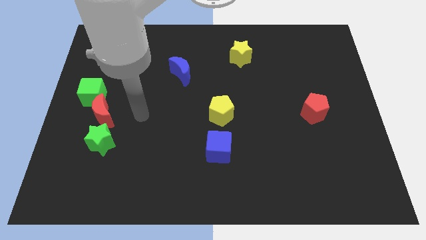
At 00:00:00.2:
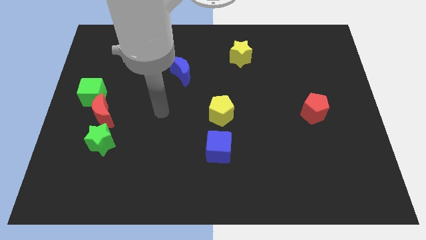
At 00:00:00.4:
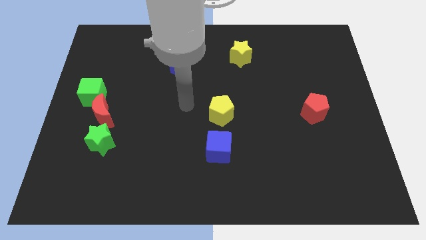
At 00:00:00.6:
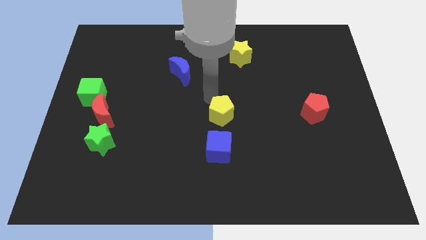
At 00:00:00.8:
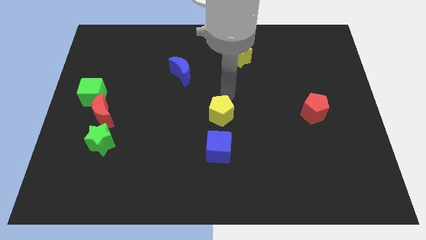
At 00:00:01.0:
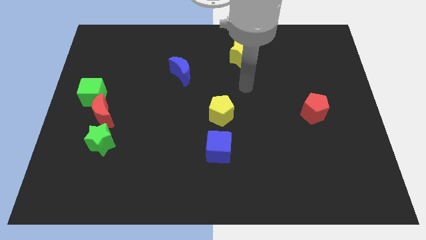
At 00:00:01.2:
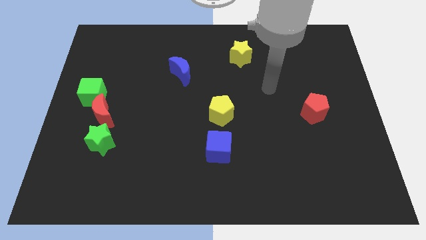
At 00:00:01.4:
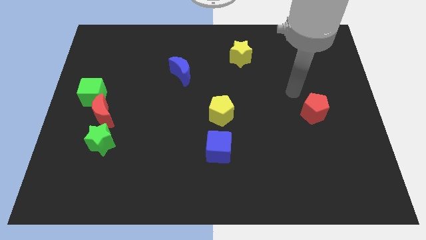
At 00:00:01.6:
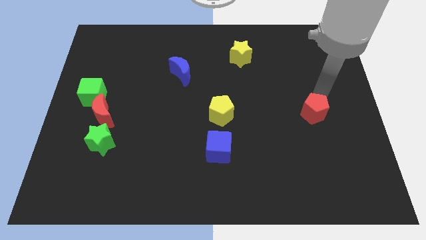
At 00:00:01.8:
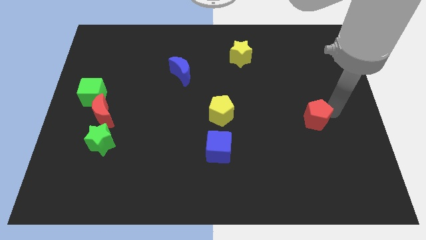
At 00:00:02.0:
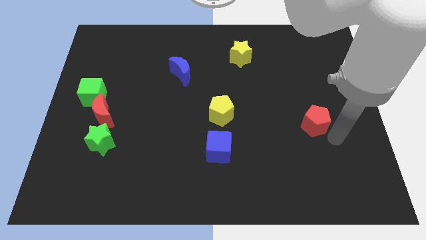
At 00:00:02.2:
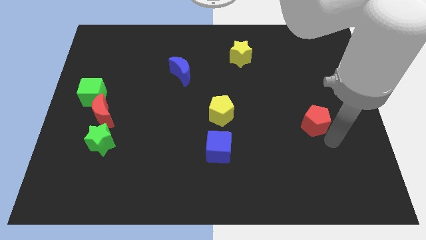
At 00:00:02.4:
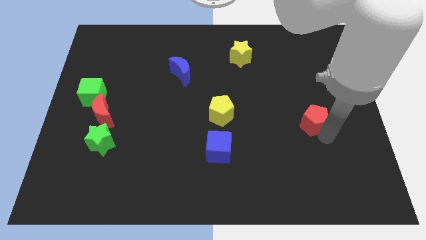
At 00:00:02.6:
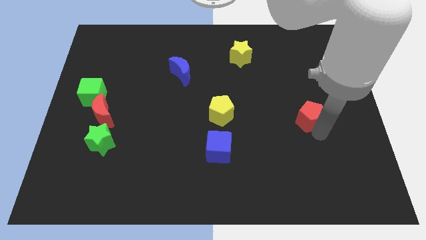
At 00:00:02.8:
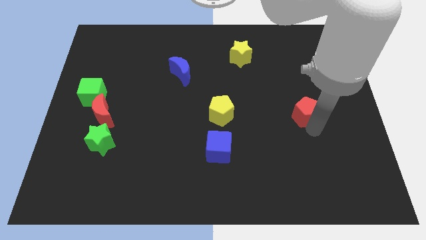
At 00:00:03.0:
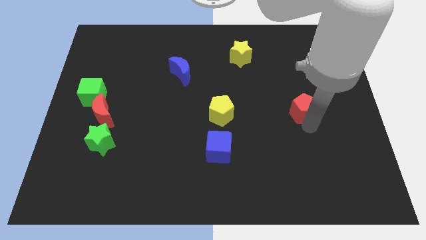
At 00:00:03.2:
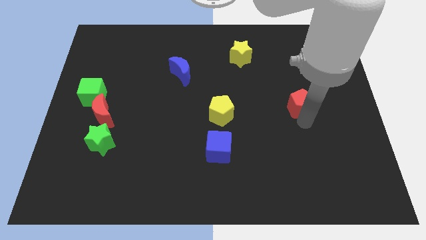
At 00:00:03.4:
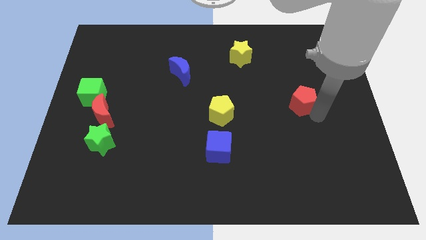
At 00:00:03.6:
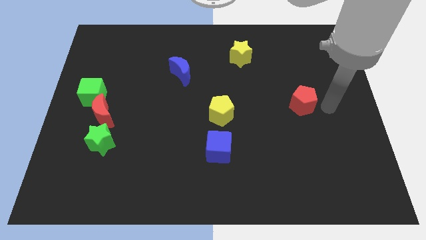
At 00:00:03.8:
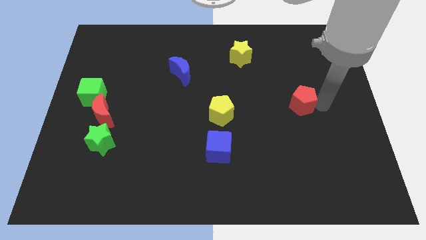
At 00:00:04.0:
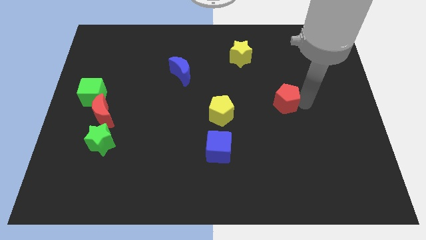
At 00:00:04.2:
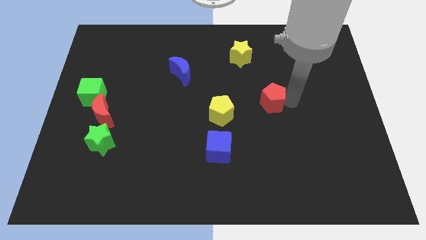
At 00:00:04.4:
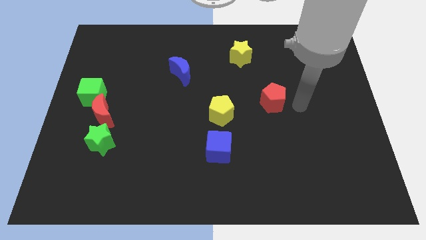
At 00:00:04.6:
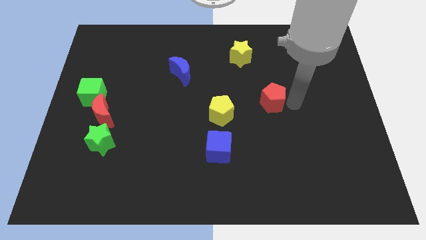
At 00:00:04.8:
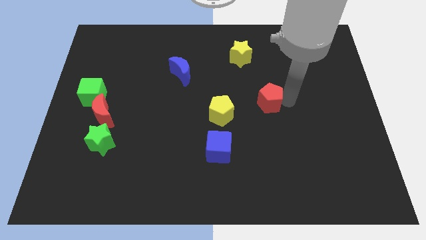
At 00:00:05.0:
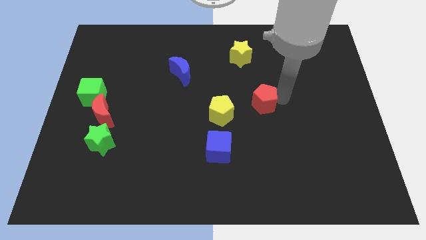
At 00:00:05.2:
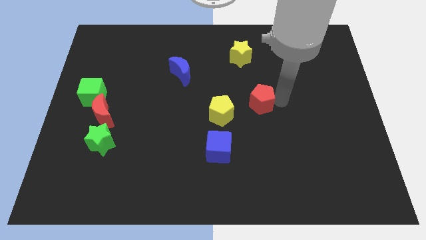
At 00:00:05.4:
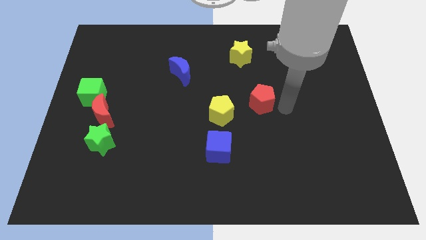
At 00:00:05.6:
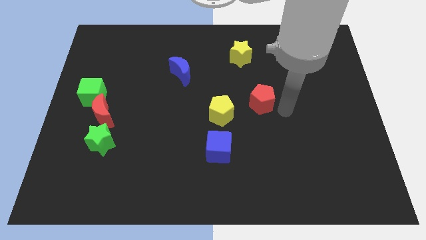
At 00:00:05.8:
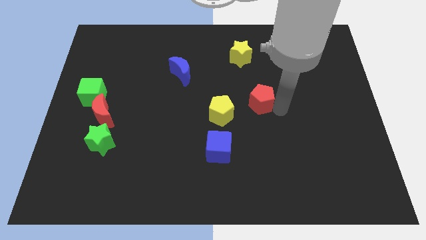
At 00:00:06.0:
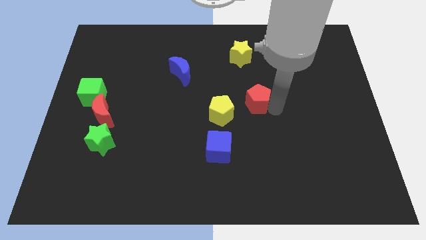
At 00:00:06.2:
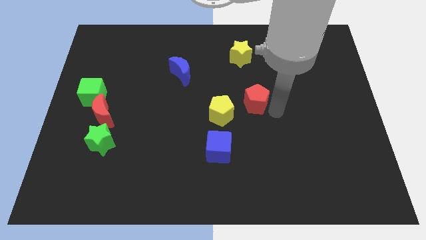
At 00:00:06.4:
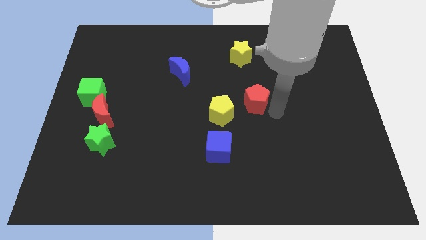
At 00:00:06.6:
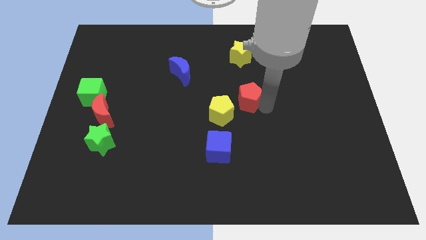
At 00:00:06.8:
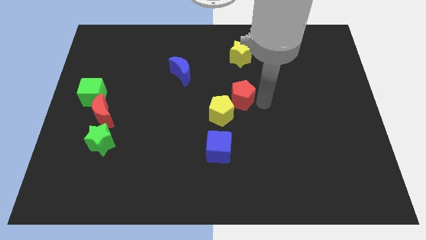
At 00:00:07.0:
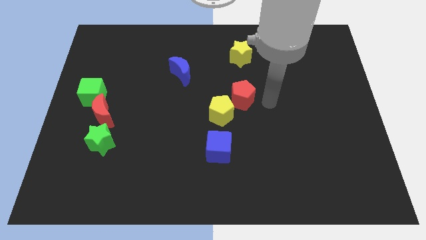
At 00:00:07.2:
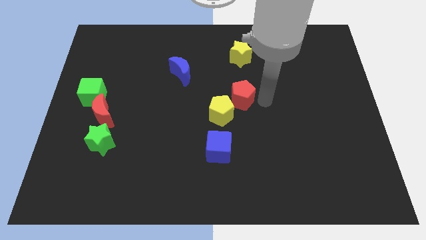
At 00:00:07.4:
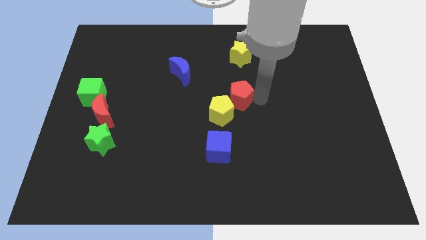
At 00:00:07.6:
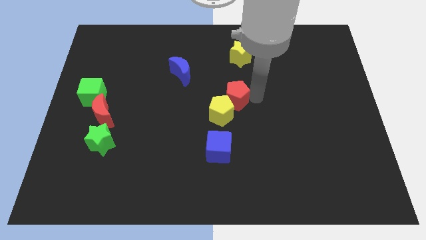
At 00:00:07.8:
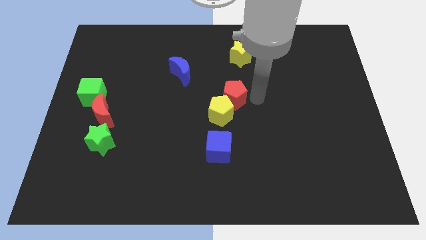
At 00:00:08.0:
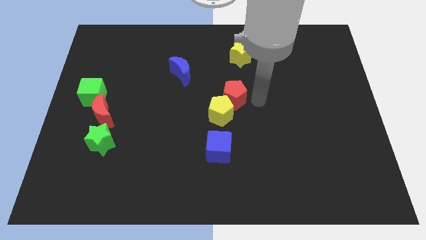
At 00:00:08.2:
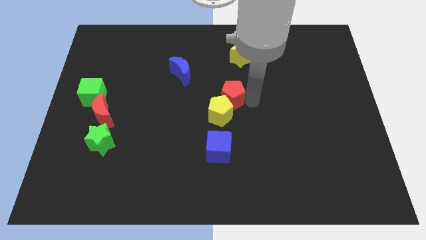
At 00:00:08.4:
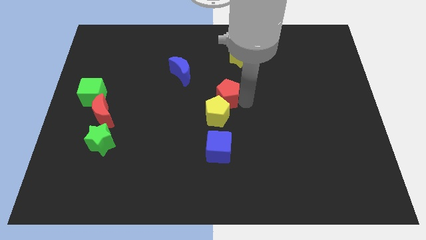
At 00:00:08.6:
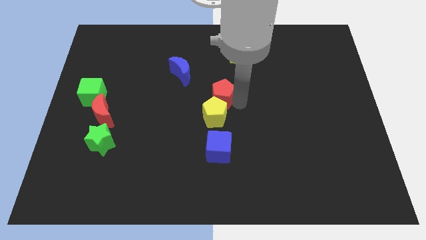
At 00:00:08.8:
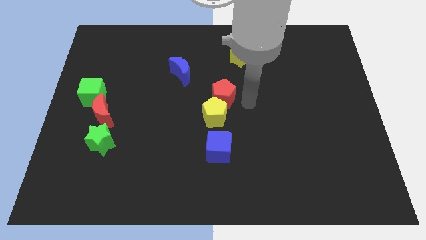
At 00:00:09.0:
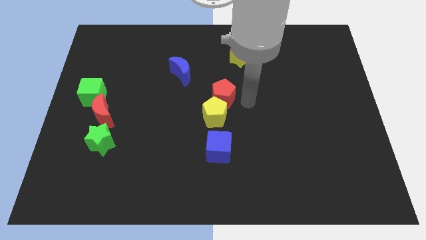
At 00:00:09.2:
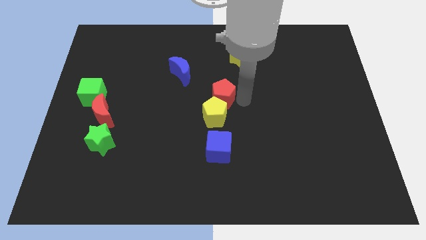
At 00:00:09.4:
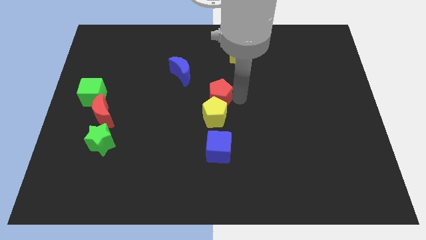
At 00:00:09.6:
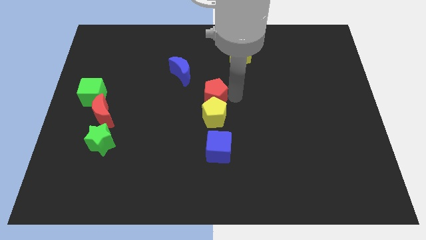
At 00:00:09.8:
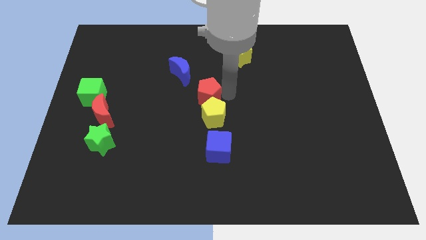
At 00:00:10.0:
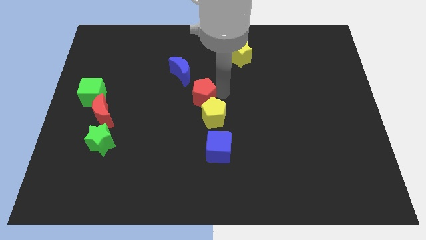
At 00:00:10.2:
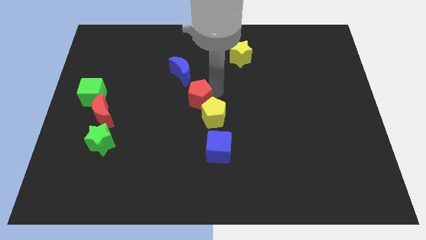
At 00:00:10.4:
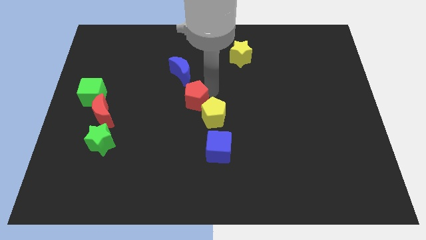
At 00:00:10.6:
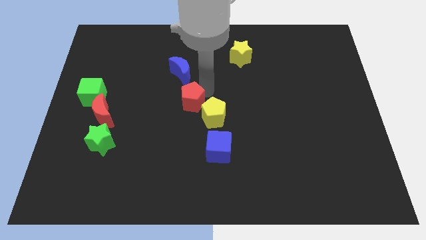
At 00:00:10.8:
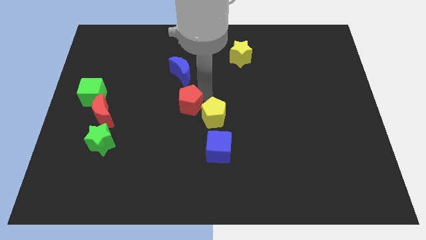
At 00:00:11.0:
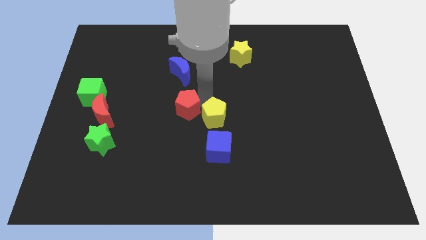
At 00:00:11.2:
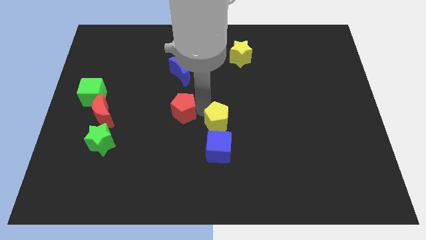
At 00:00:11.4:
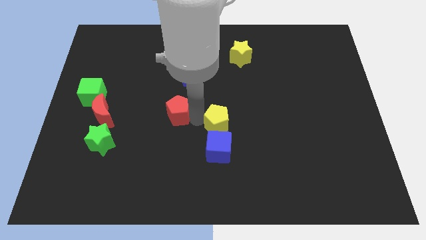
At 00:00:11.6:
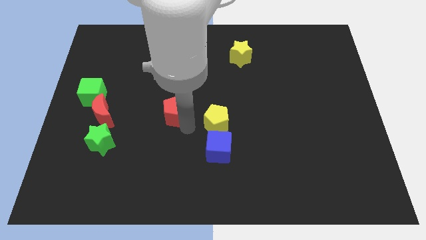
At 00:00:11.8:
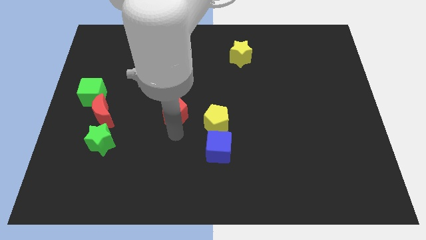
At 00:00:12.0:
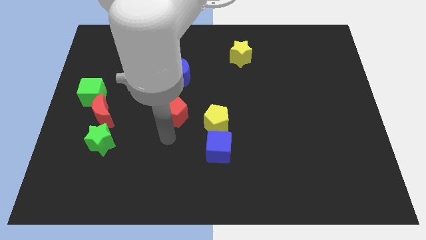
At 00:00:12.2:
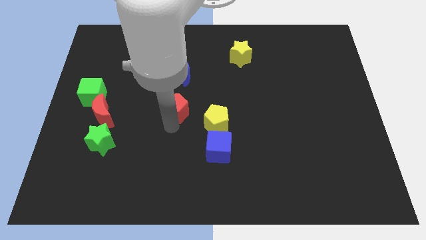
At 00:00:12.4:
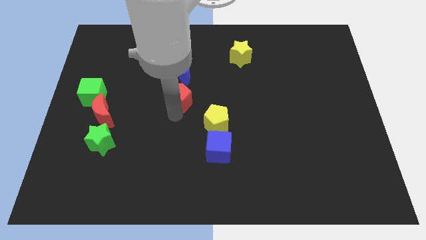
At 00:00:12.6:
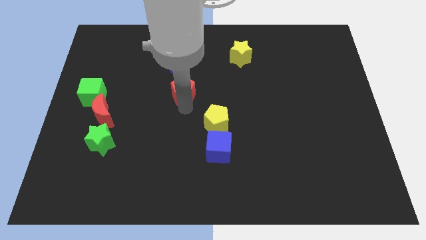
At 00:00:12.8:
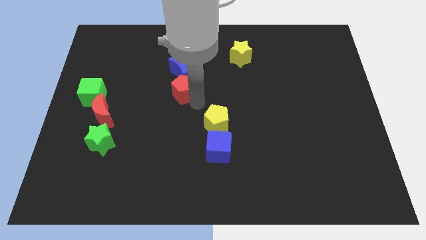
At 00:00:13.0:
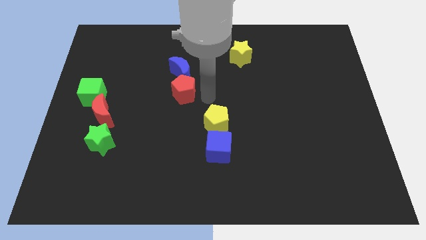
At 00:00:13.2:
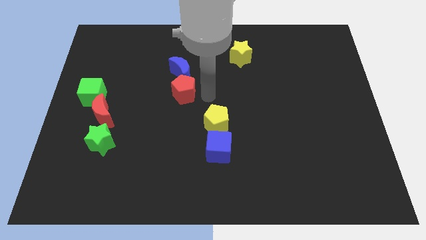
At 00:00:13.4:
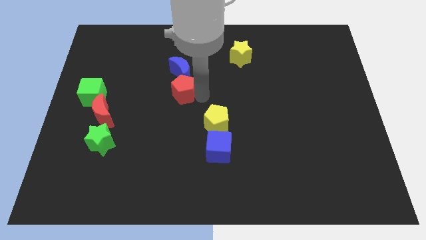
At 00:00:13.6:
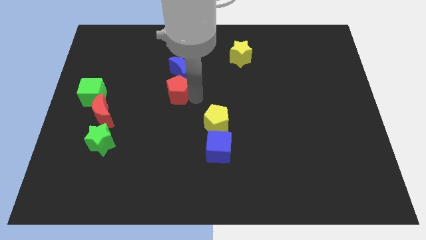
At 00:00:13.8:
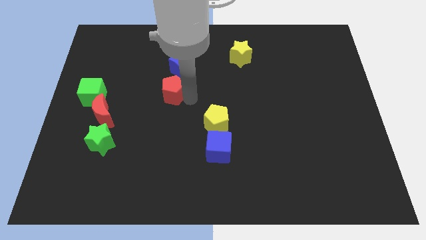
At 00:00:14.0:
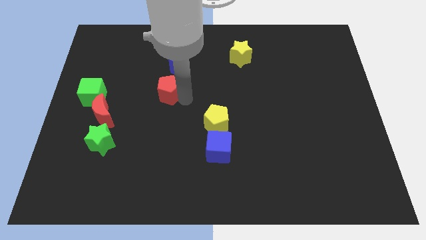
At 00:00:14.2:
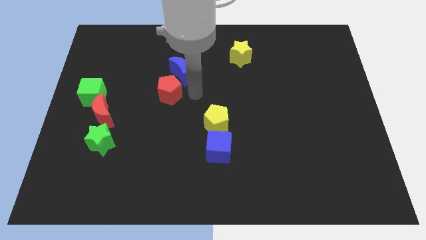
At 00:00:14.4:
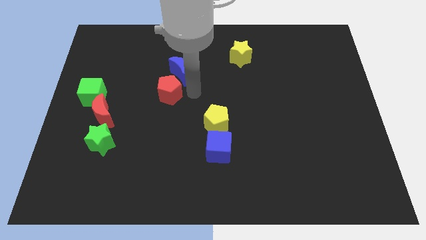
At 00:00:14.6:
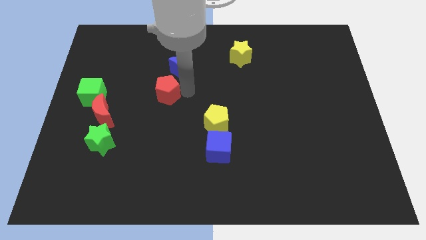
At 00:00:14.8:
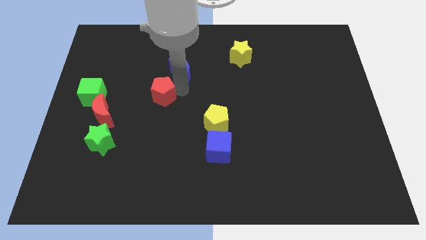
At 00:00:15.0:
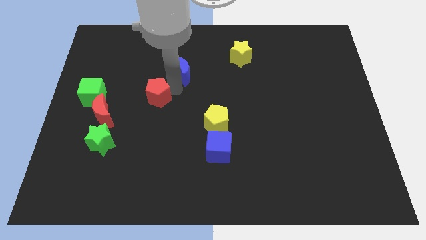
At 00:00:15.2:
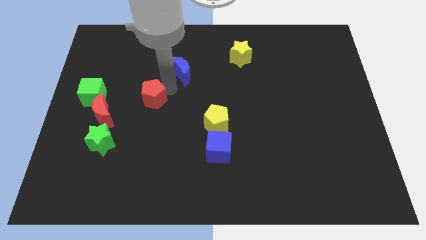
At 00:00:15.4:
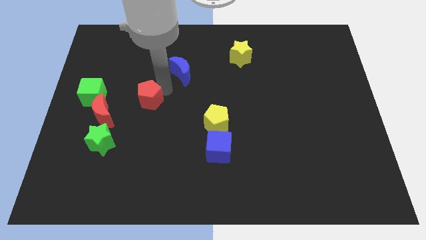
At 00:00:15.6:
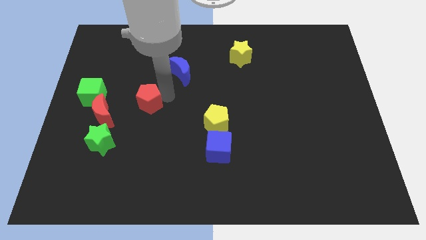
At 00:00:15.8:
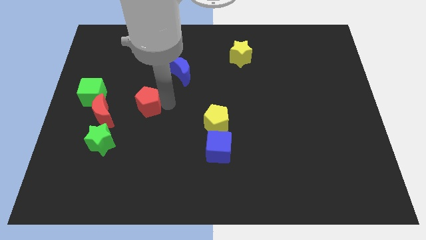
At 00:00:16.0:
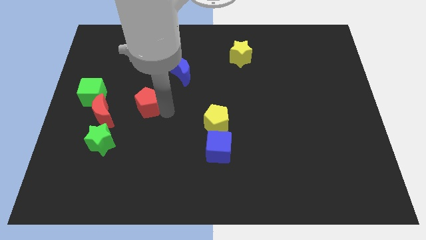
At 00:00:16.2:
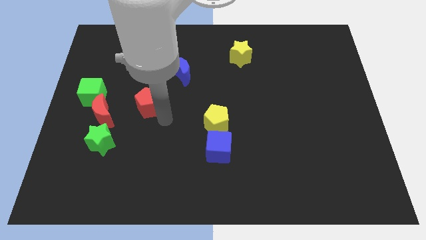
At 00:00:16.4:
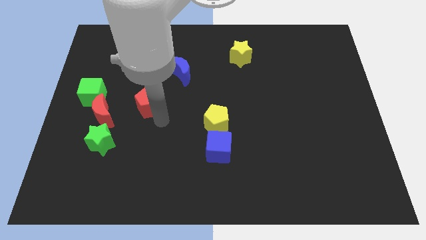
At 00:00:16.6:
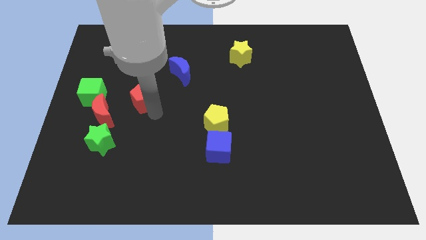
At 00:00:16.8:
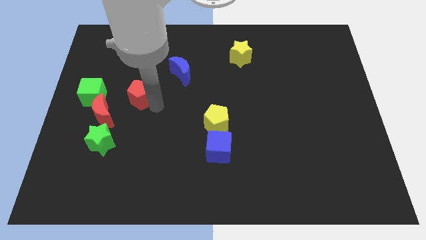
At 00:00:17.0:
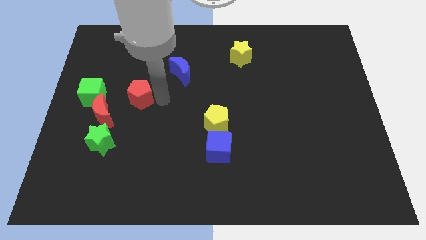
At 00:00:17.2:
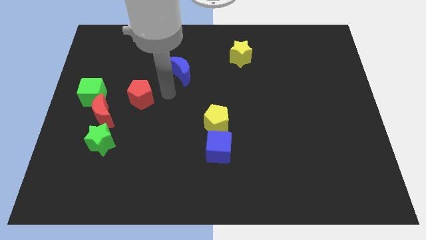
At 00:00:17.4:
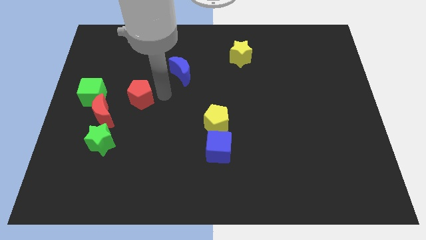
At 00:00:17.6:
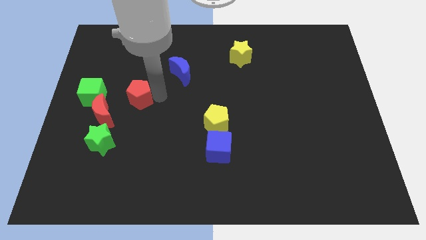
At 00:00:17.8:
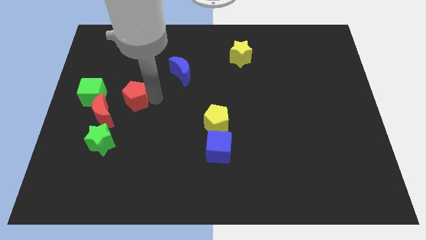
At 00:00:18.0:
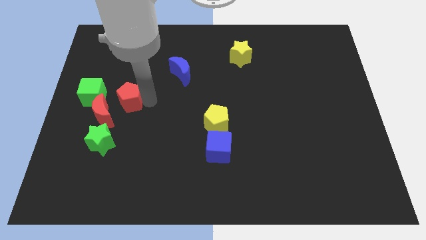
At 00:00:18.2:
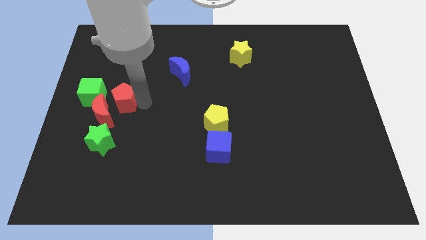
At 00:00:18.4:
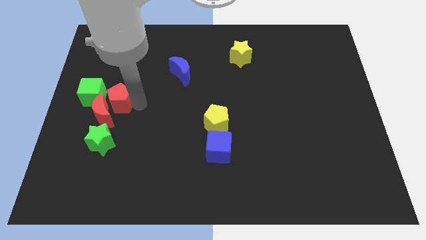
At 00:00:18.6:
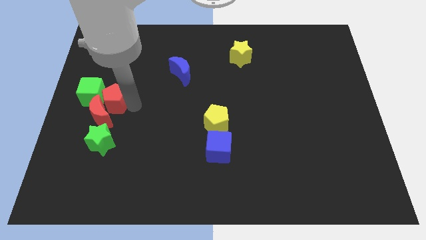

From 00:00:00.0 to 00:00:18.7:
put the red pentagon close to the green cube
